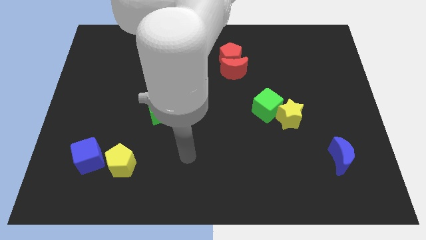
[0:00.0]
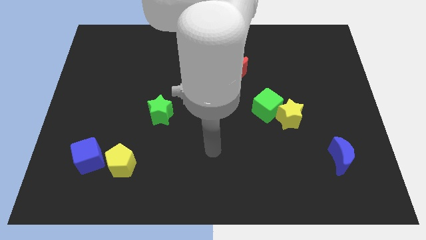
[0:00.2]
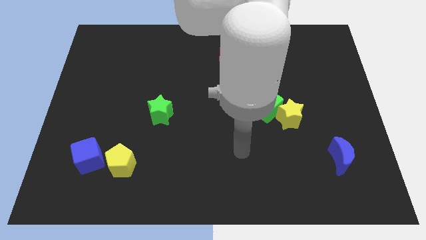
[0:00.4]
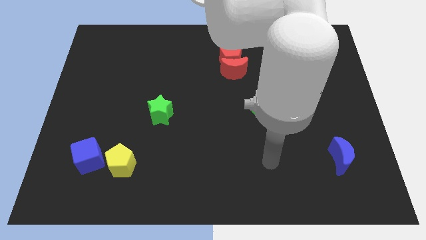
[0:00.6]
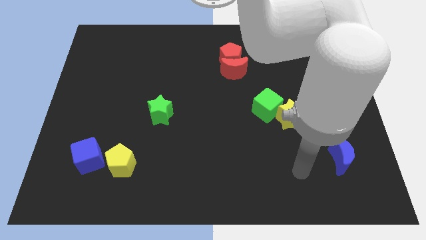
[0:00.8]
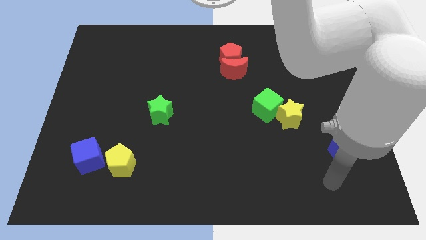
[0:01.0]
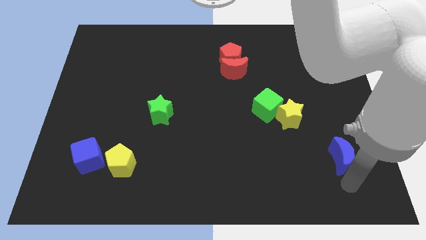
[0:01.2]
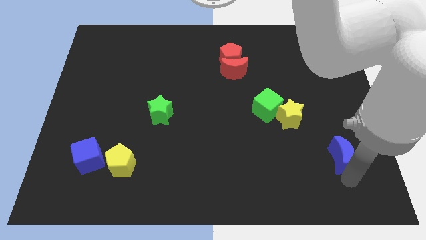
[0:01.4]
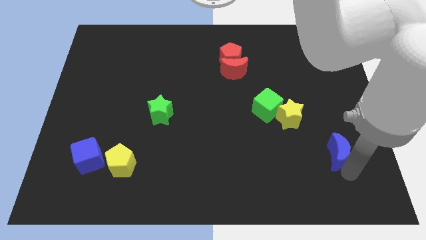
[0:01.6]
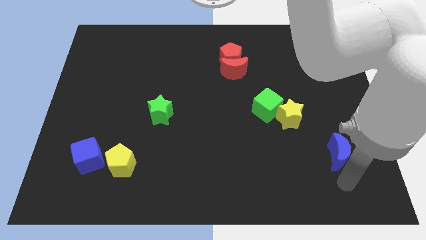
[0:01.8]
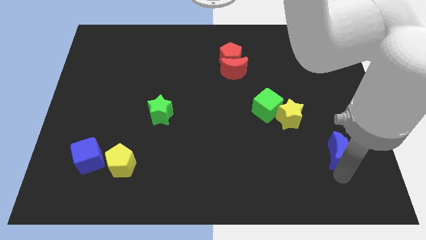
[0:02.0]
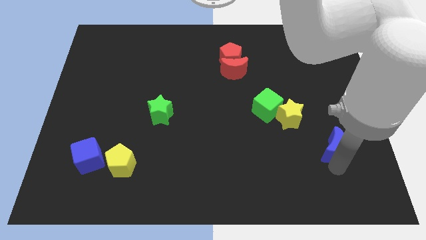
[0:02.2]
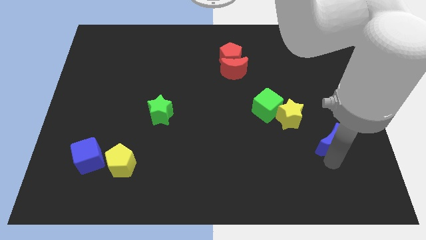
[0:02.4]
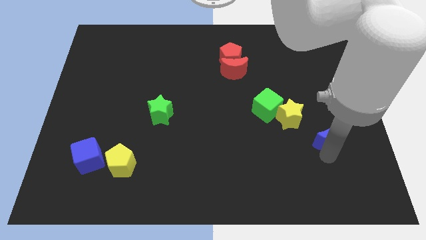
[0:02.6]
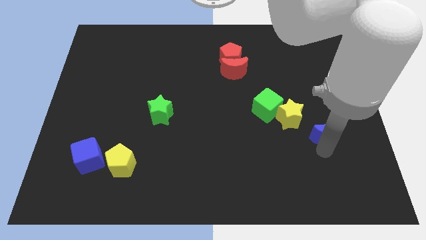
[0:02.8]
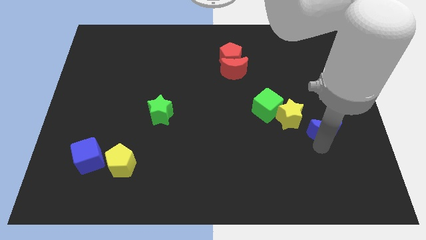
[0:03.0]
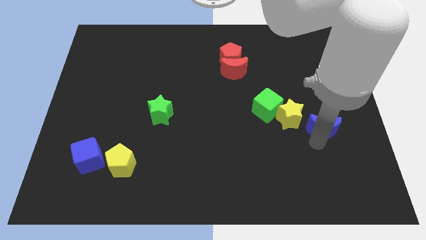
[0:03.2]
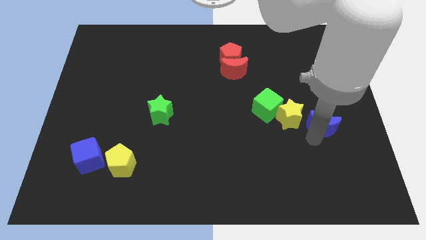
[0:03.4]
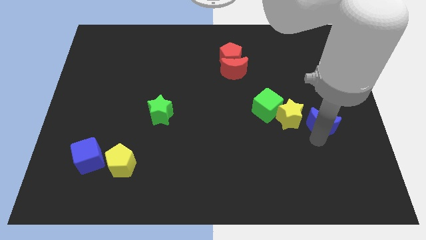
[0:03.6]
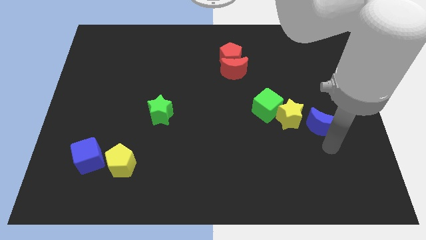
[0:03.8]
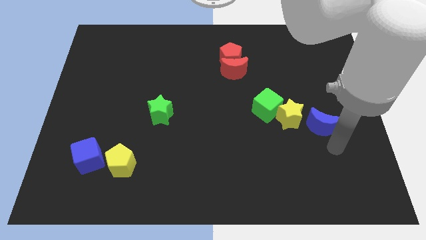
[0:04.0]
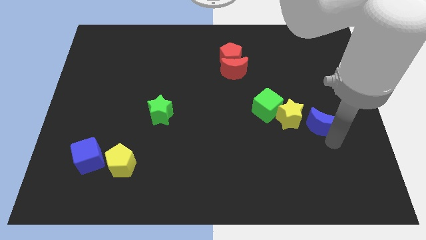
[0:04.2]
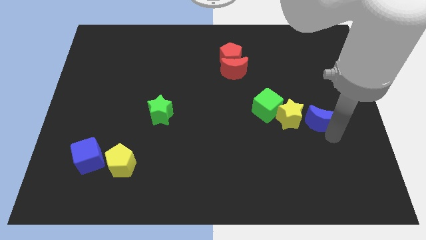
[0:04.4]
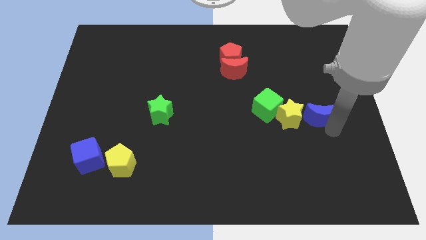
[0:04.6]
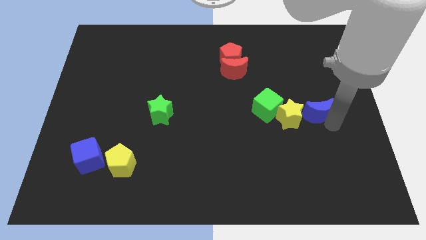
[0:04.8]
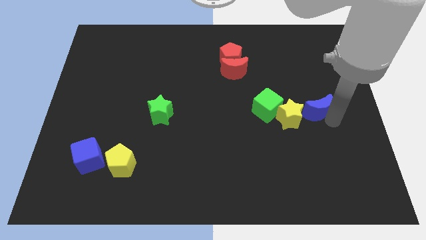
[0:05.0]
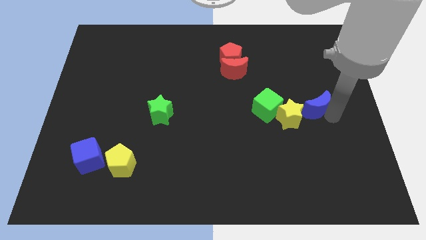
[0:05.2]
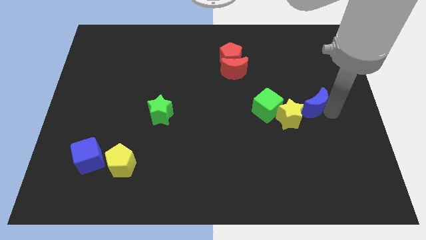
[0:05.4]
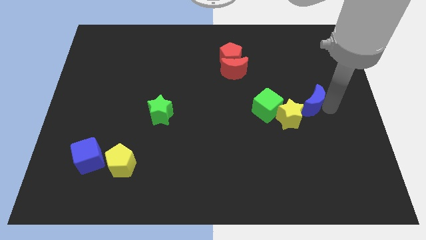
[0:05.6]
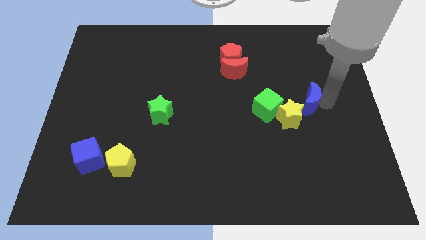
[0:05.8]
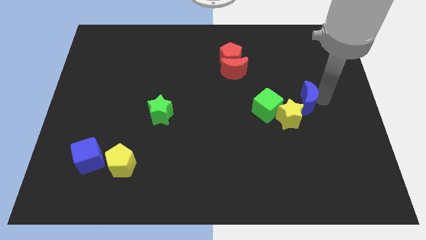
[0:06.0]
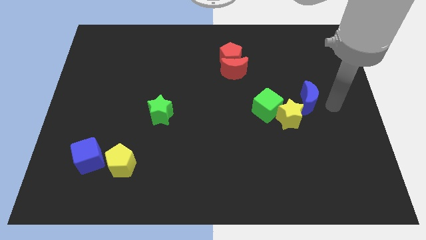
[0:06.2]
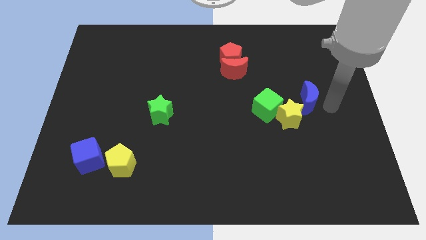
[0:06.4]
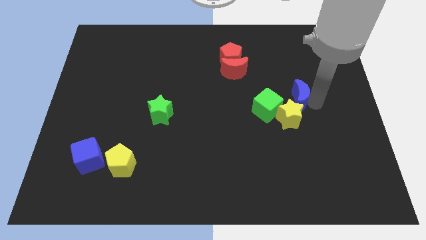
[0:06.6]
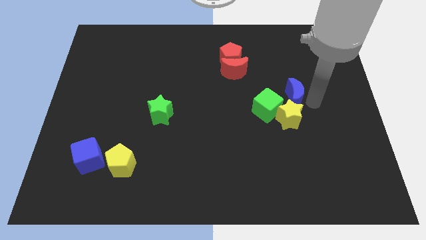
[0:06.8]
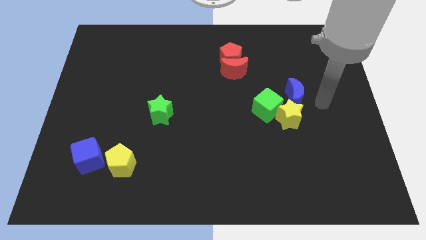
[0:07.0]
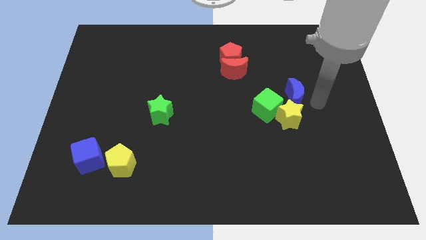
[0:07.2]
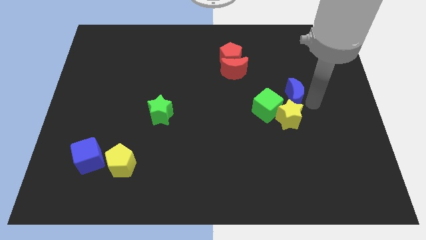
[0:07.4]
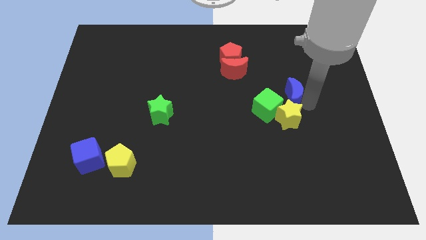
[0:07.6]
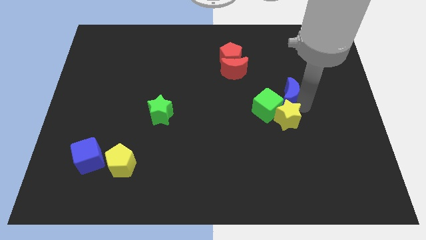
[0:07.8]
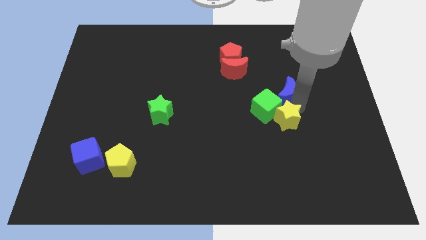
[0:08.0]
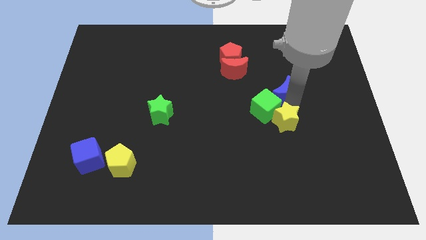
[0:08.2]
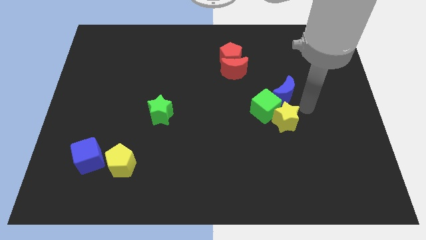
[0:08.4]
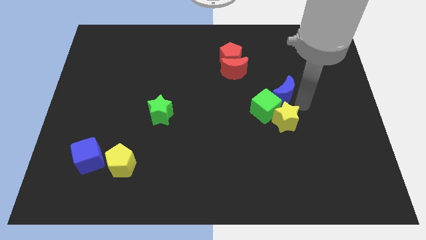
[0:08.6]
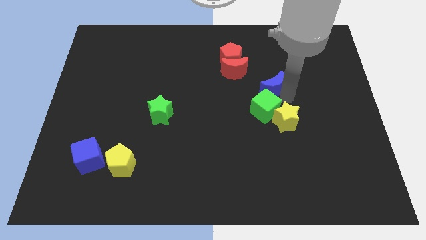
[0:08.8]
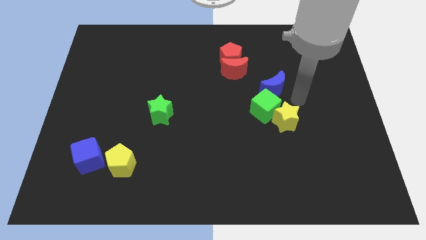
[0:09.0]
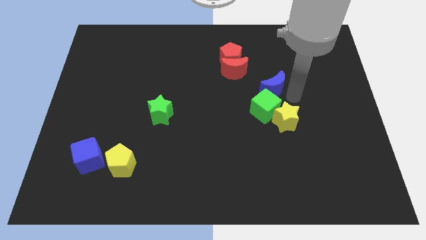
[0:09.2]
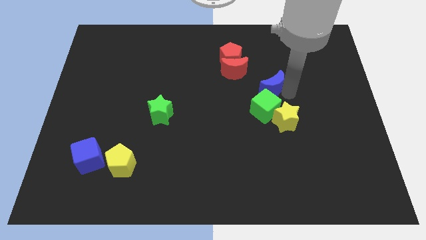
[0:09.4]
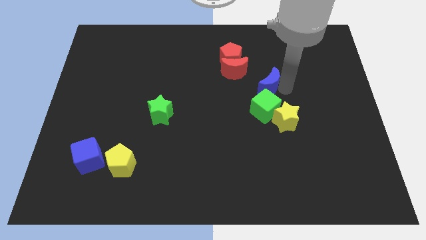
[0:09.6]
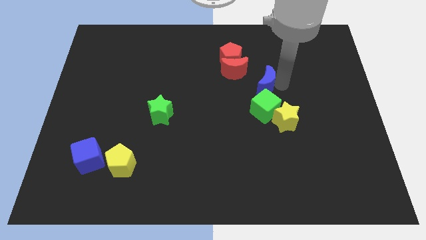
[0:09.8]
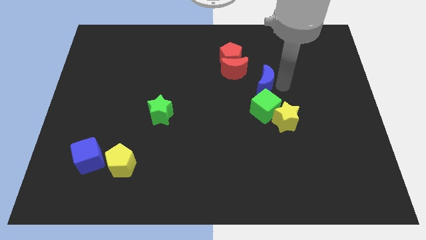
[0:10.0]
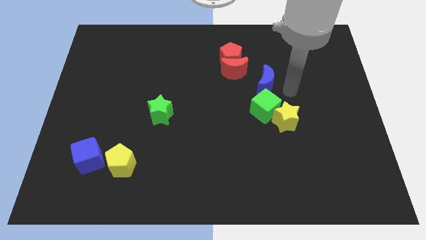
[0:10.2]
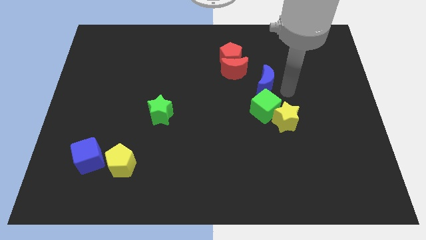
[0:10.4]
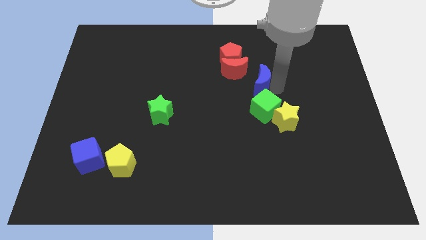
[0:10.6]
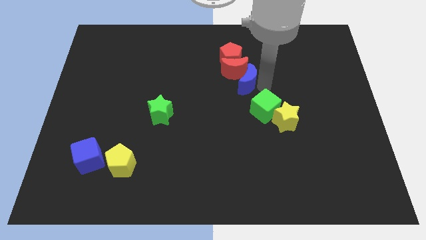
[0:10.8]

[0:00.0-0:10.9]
push the blue moon next to the red moon

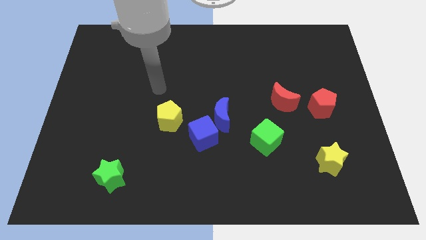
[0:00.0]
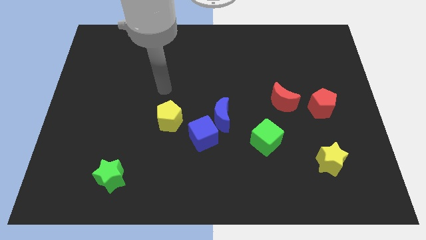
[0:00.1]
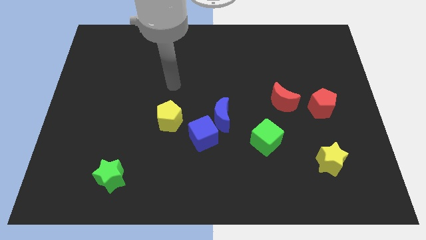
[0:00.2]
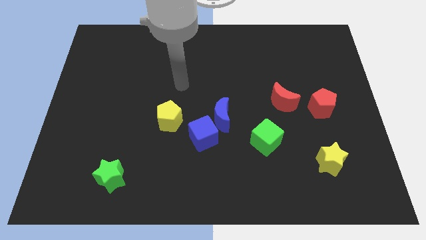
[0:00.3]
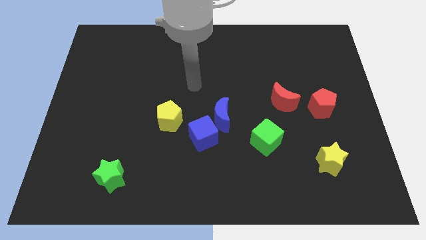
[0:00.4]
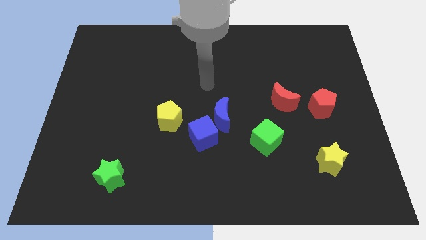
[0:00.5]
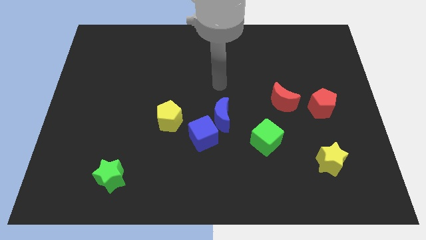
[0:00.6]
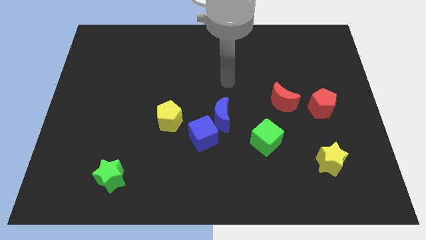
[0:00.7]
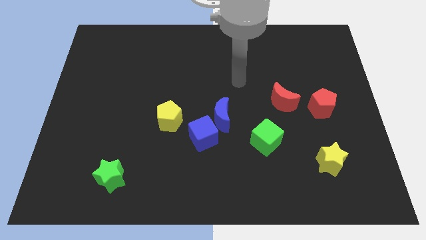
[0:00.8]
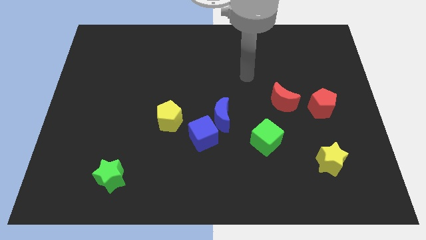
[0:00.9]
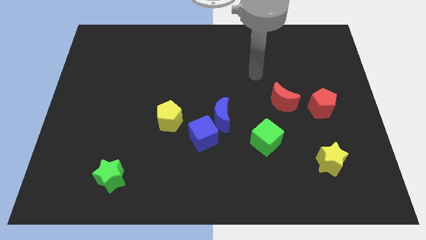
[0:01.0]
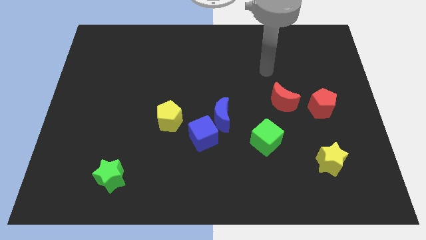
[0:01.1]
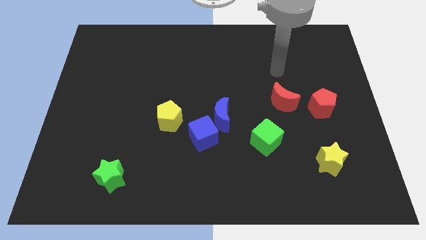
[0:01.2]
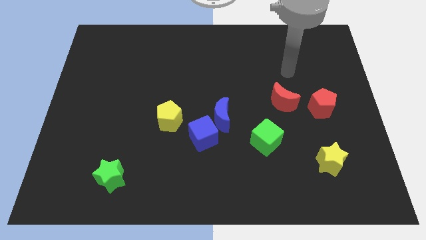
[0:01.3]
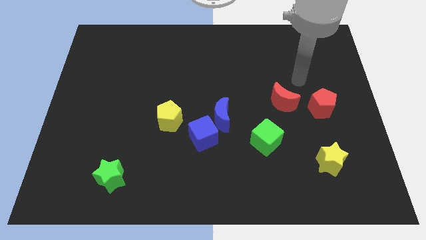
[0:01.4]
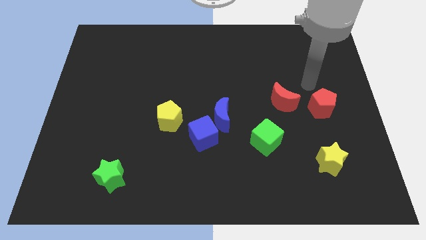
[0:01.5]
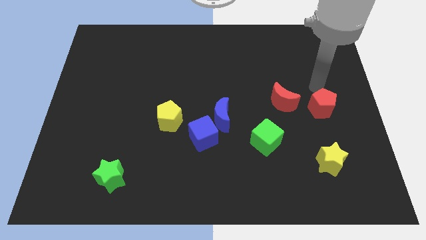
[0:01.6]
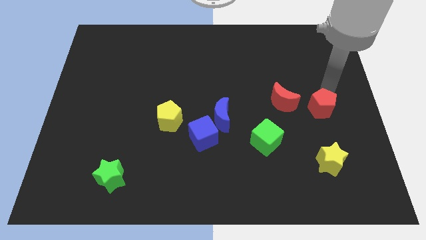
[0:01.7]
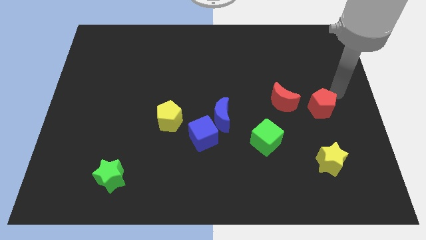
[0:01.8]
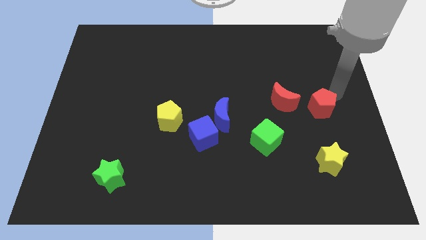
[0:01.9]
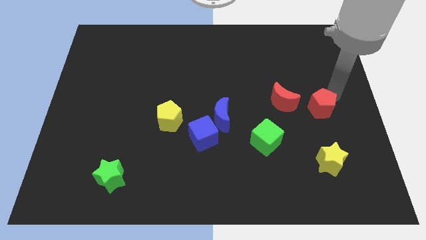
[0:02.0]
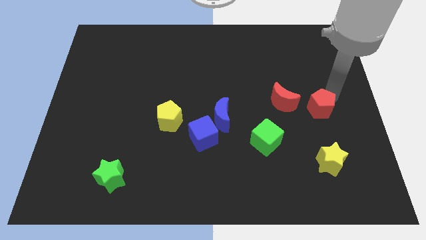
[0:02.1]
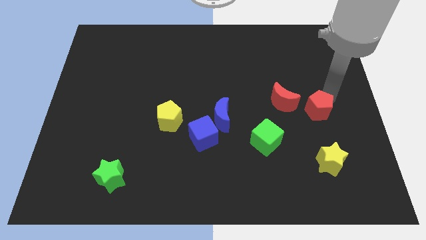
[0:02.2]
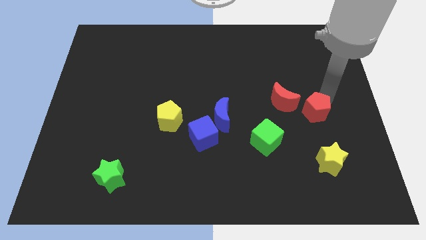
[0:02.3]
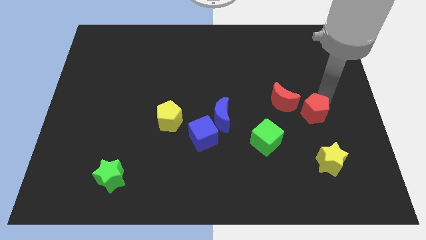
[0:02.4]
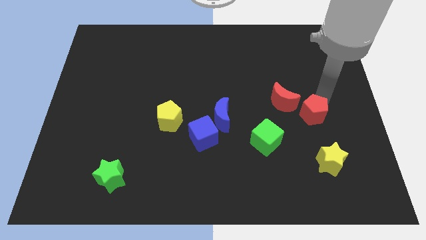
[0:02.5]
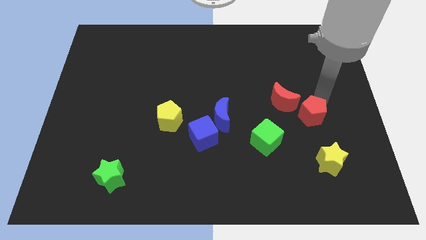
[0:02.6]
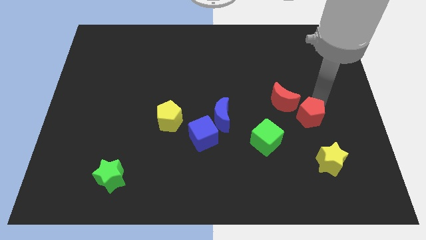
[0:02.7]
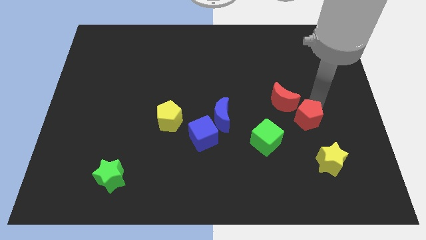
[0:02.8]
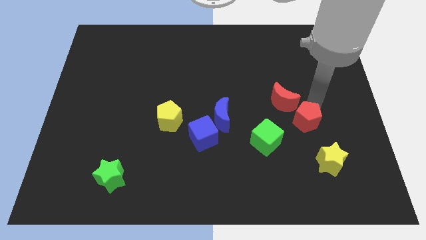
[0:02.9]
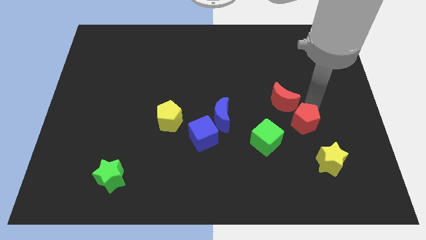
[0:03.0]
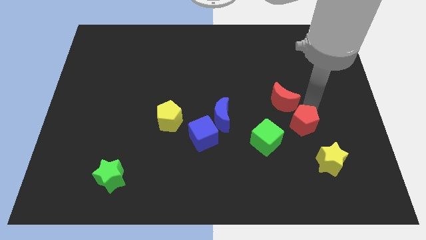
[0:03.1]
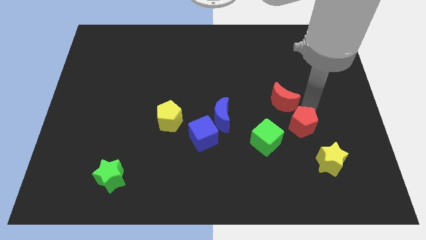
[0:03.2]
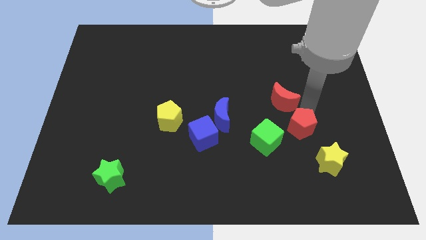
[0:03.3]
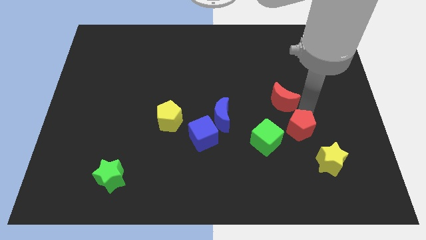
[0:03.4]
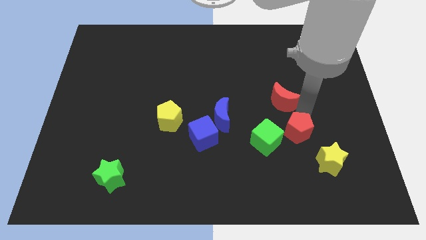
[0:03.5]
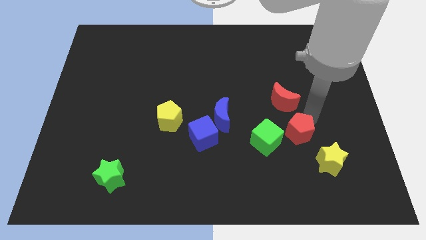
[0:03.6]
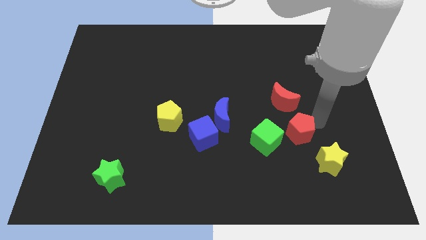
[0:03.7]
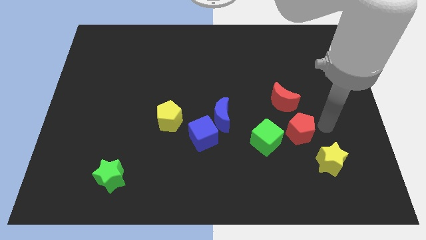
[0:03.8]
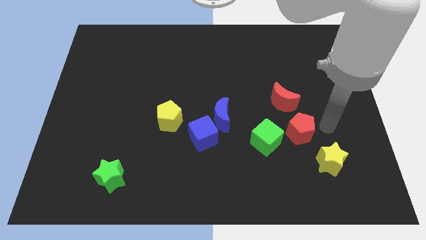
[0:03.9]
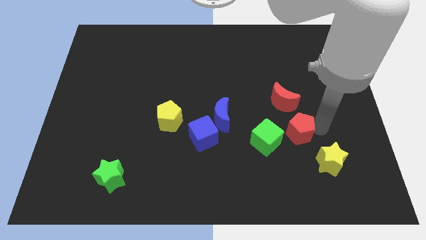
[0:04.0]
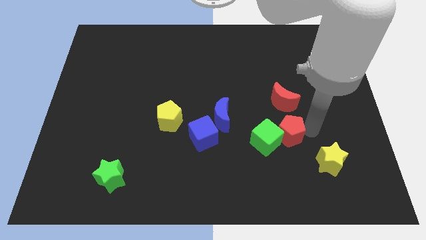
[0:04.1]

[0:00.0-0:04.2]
move the red pentagon towards the green cube
